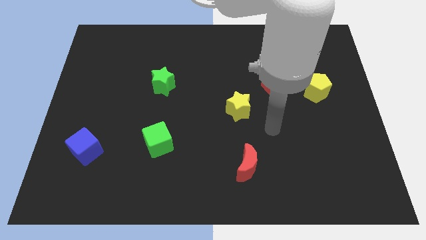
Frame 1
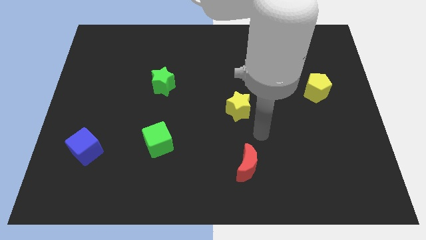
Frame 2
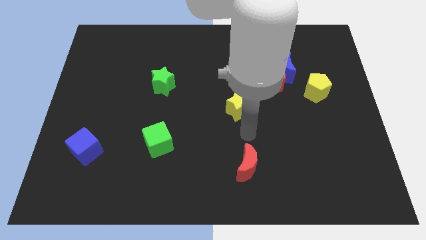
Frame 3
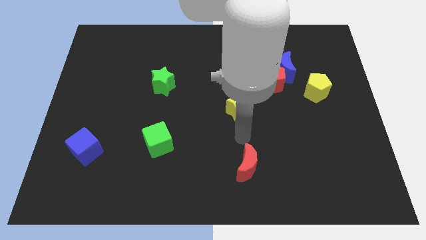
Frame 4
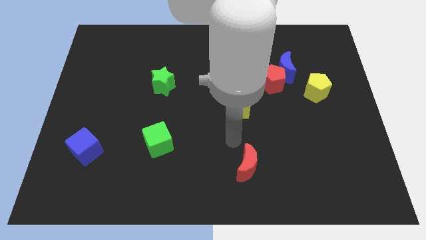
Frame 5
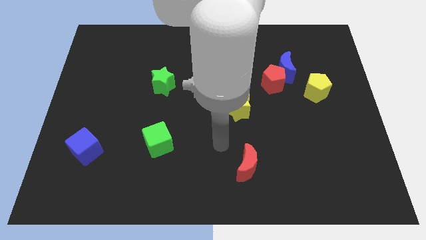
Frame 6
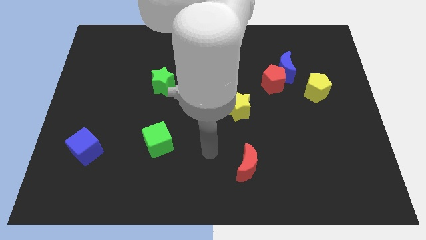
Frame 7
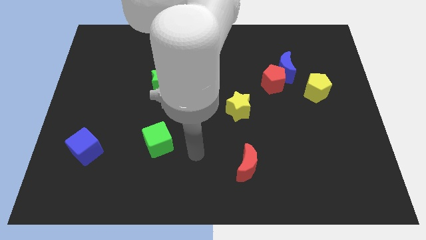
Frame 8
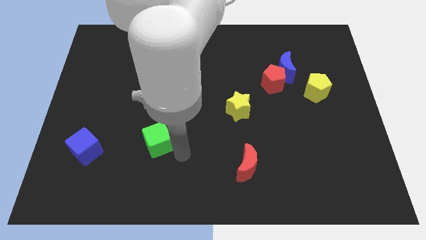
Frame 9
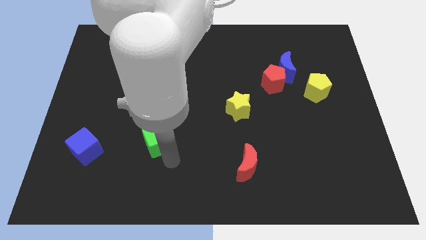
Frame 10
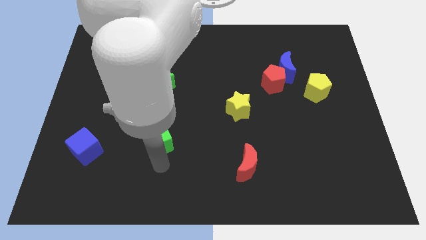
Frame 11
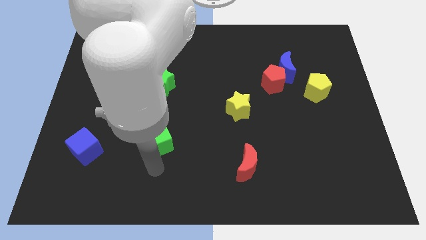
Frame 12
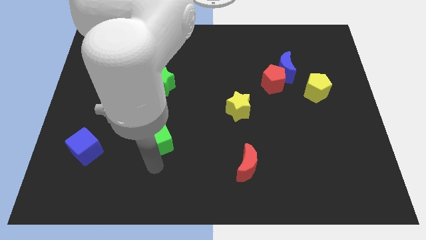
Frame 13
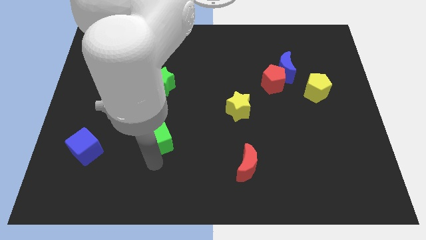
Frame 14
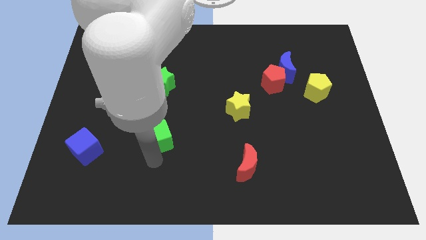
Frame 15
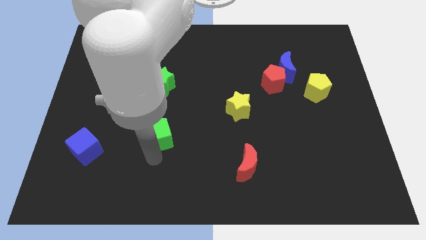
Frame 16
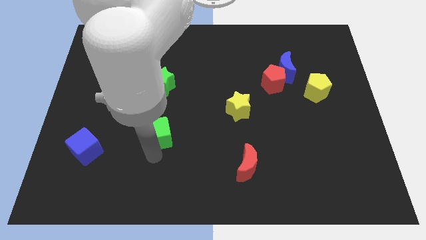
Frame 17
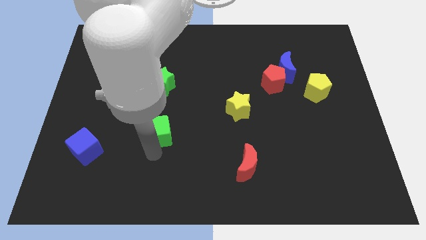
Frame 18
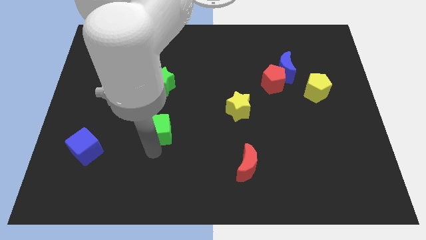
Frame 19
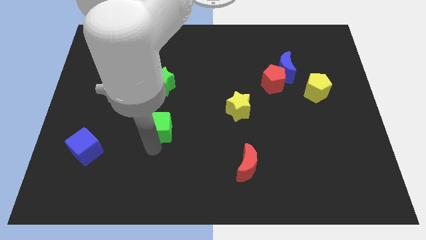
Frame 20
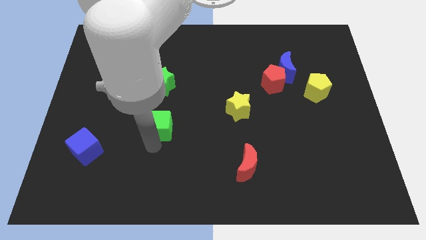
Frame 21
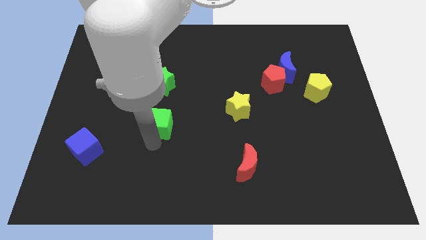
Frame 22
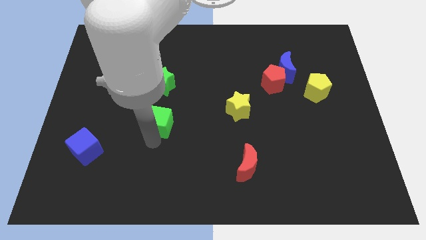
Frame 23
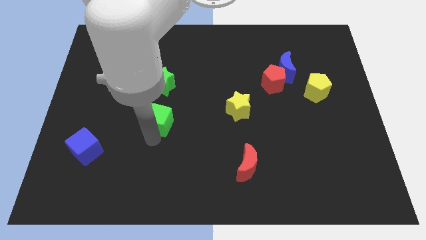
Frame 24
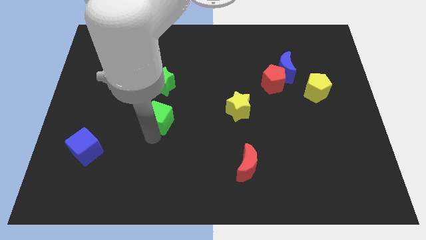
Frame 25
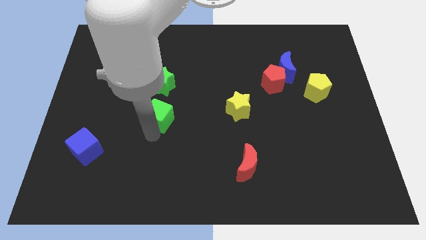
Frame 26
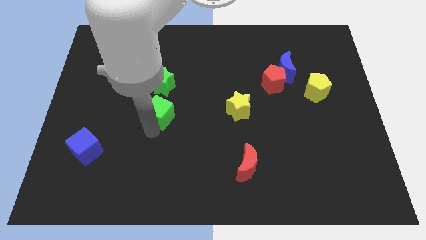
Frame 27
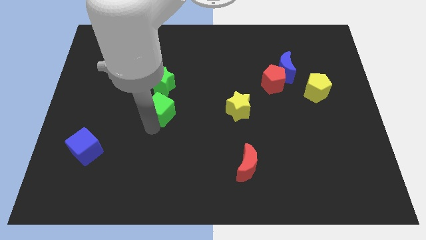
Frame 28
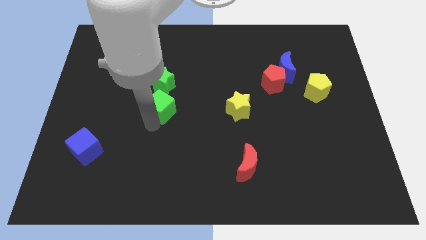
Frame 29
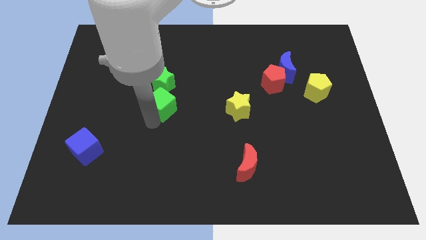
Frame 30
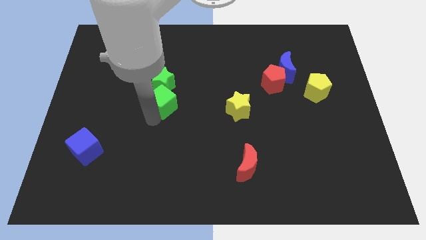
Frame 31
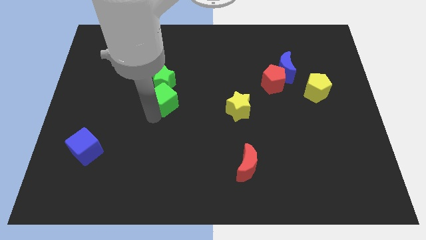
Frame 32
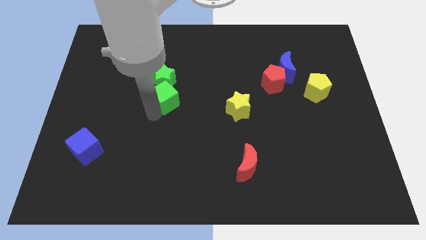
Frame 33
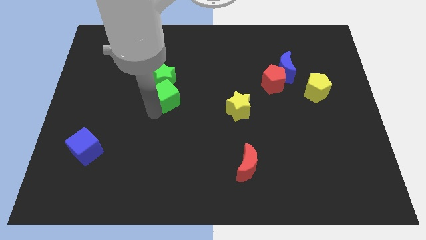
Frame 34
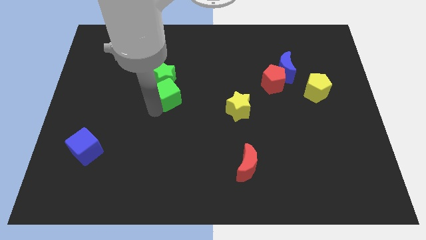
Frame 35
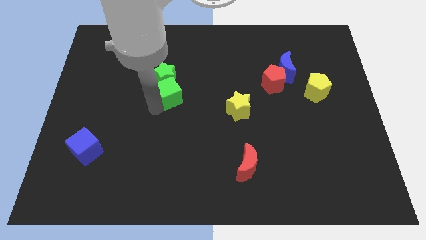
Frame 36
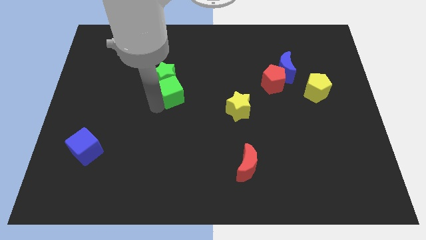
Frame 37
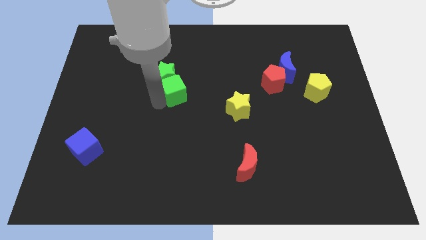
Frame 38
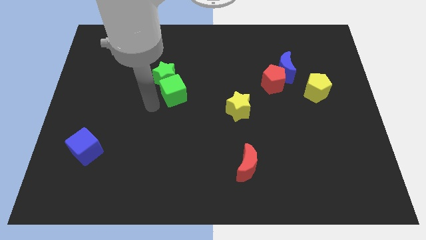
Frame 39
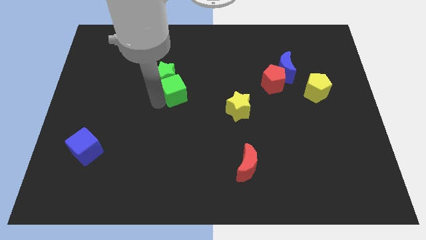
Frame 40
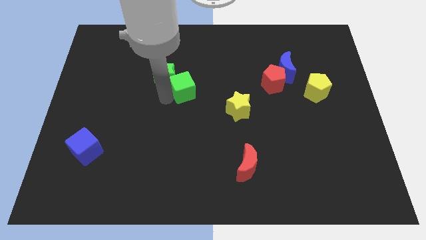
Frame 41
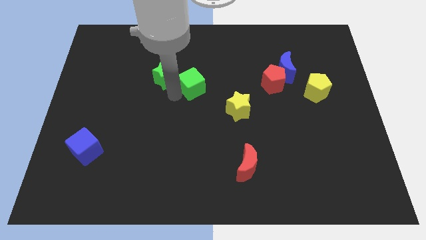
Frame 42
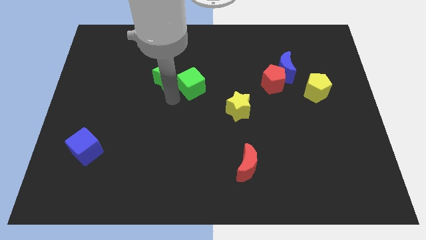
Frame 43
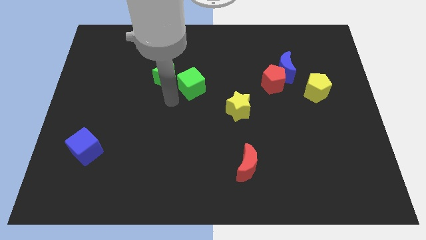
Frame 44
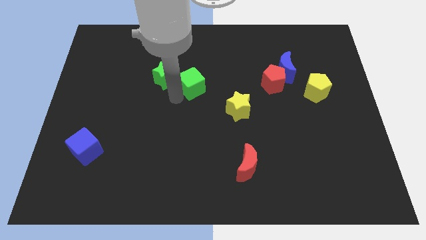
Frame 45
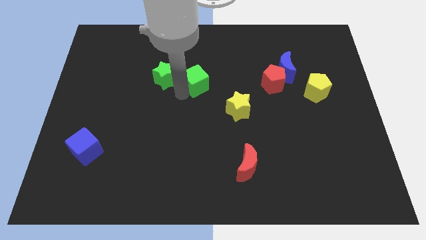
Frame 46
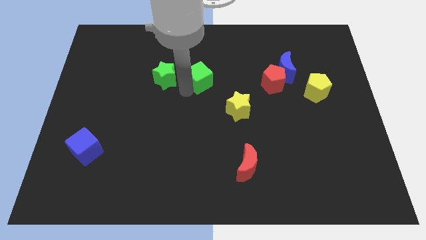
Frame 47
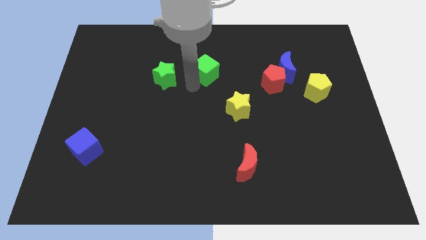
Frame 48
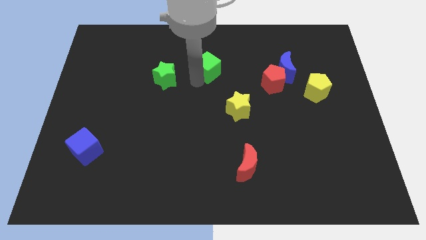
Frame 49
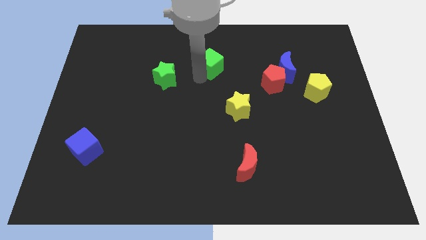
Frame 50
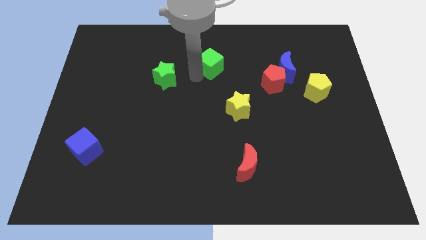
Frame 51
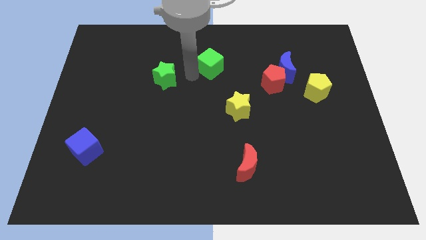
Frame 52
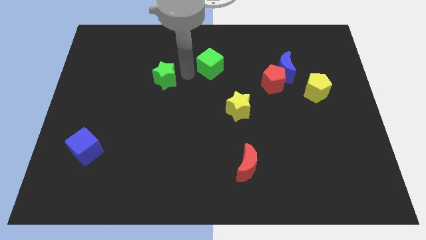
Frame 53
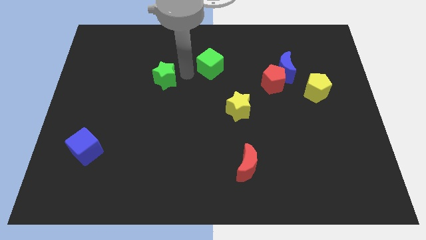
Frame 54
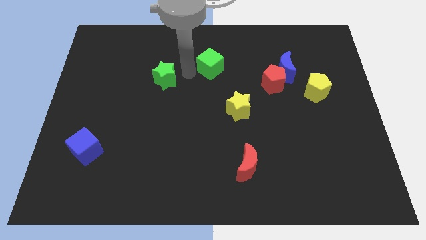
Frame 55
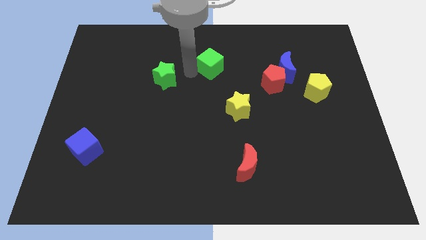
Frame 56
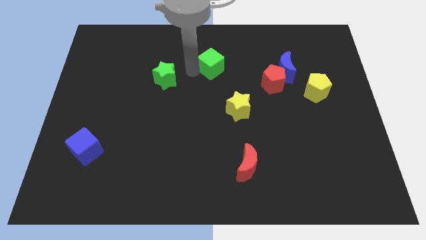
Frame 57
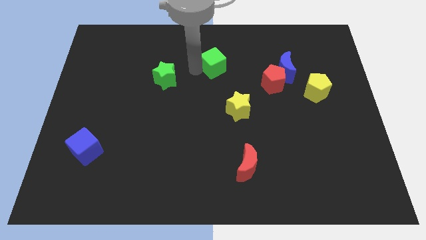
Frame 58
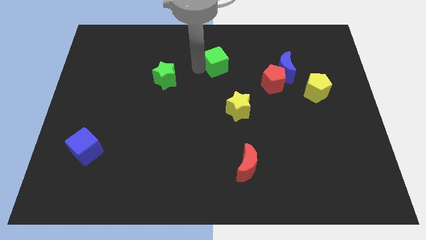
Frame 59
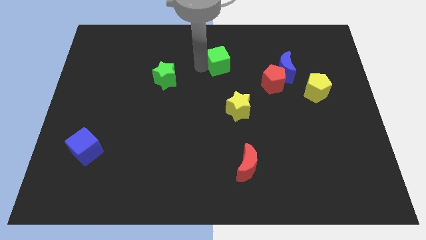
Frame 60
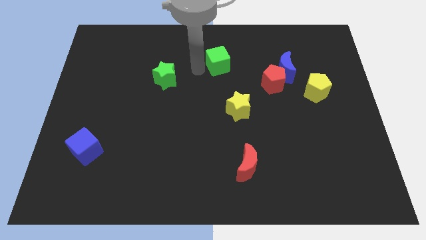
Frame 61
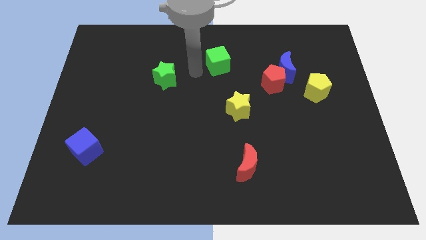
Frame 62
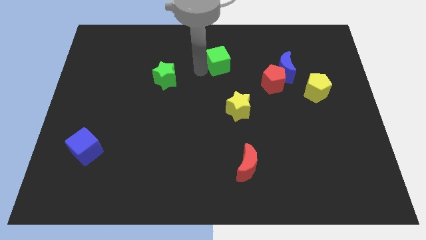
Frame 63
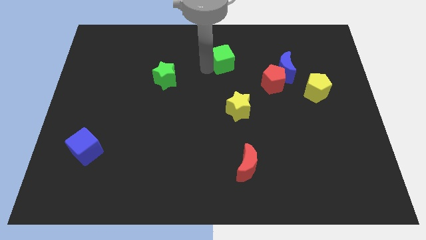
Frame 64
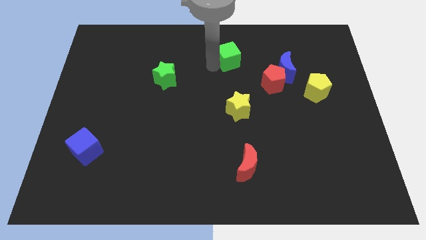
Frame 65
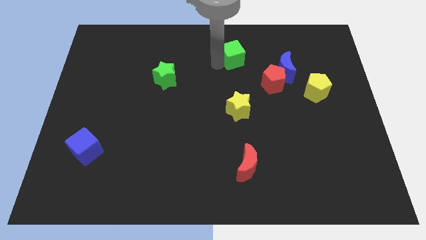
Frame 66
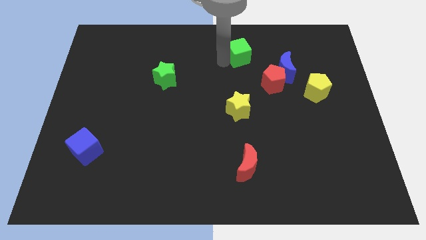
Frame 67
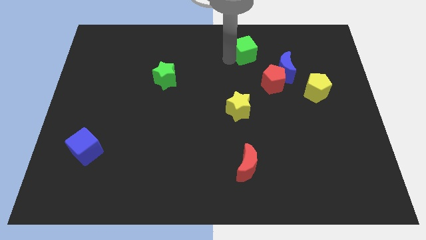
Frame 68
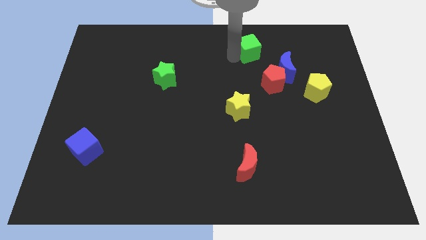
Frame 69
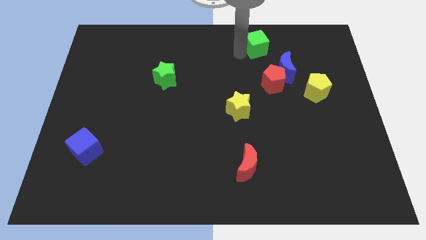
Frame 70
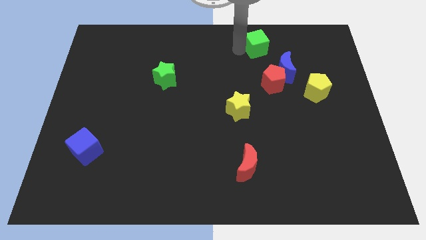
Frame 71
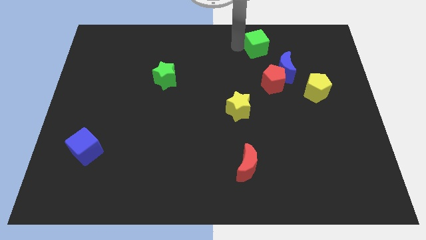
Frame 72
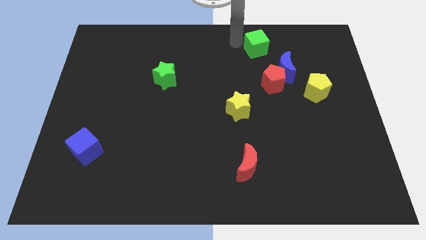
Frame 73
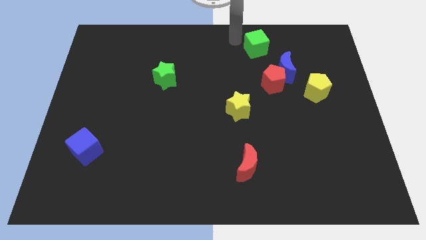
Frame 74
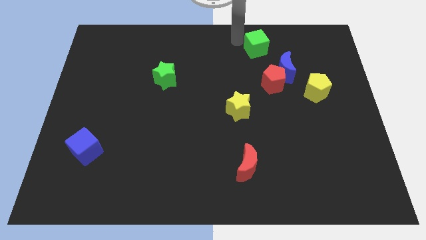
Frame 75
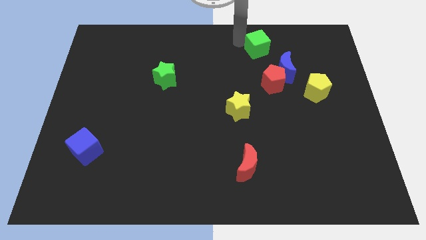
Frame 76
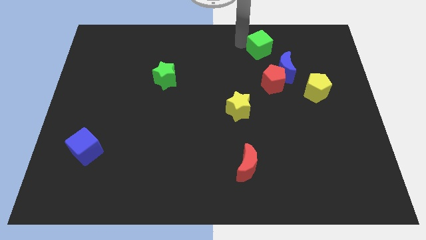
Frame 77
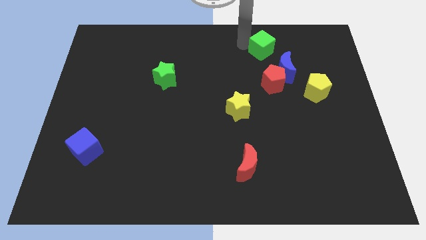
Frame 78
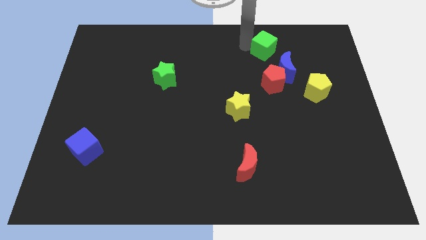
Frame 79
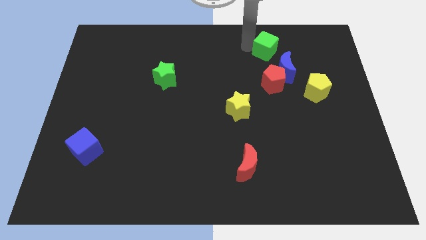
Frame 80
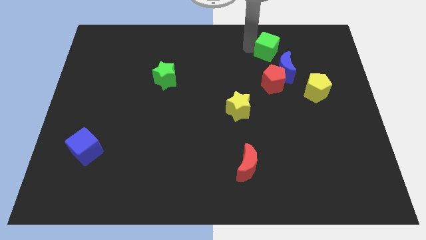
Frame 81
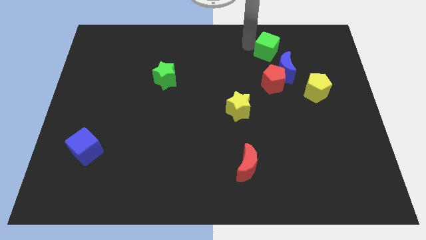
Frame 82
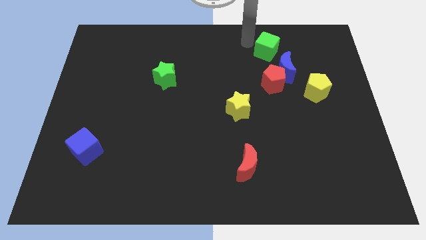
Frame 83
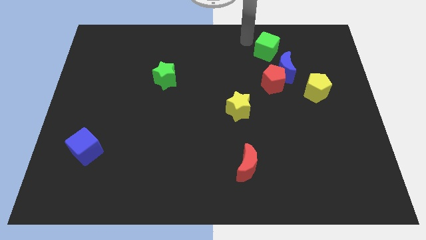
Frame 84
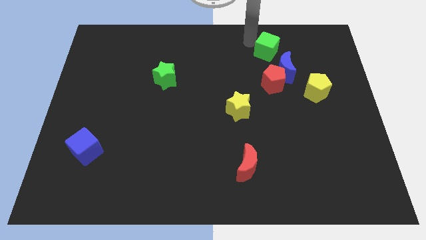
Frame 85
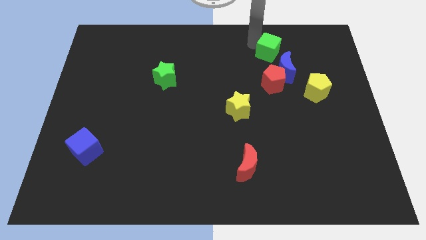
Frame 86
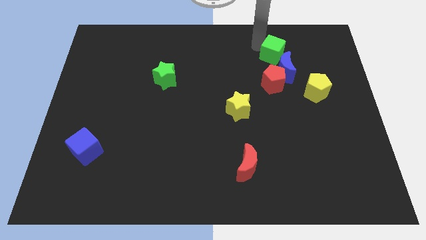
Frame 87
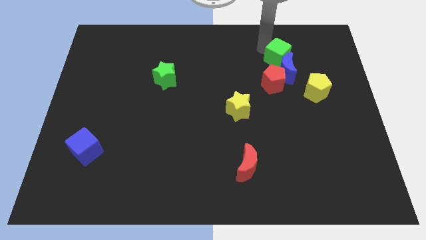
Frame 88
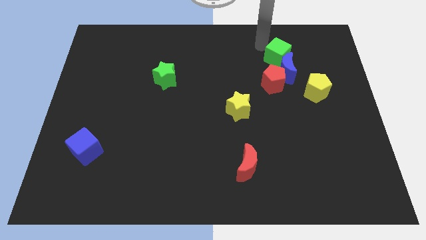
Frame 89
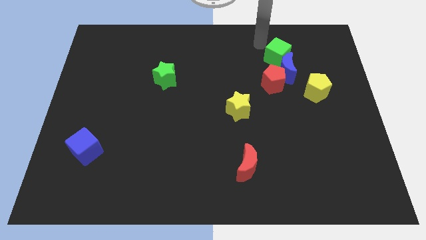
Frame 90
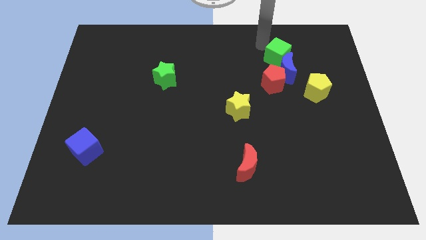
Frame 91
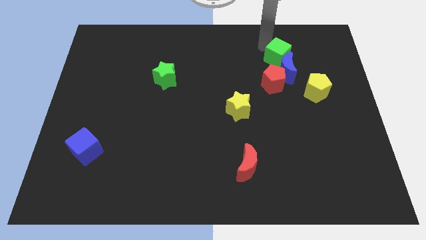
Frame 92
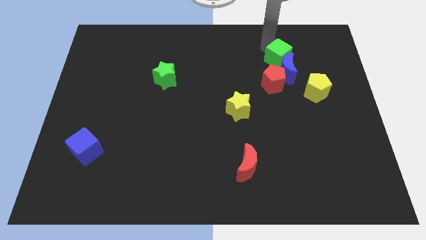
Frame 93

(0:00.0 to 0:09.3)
push the green cube to the top right side of the red pentagon
